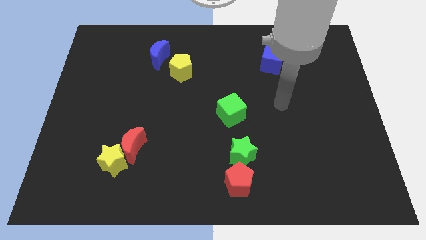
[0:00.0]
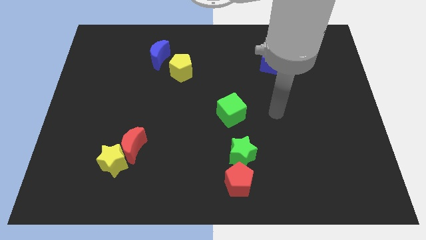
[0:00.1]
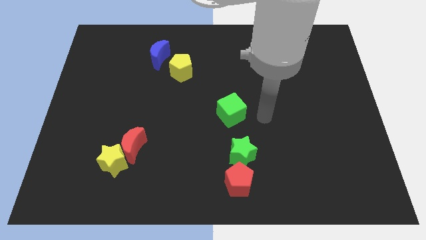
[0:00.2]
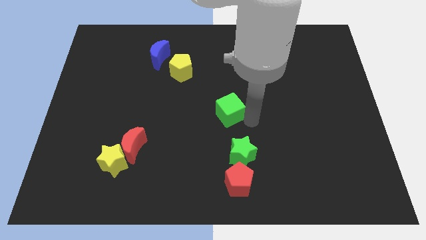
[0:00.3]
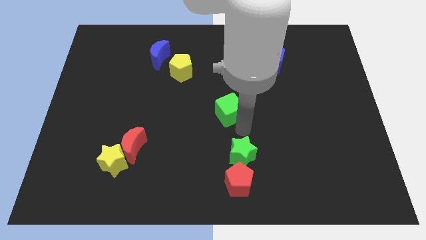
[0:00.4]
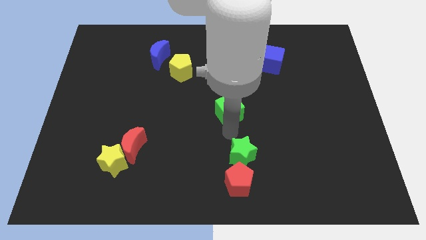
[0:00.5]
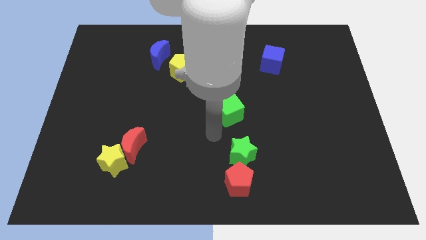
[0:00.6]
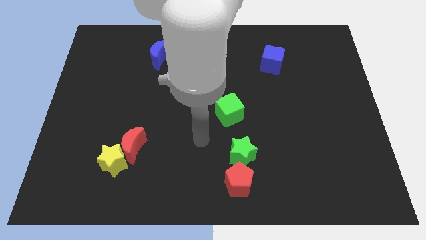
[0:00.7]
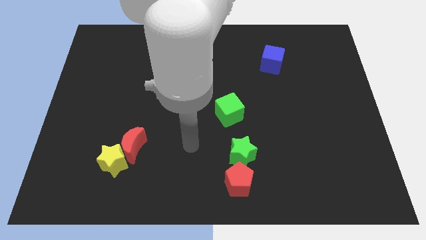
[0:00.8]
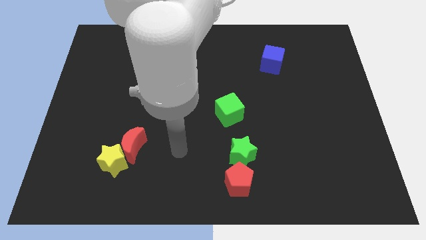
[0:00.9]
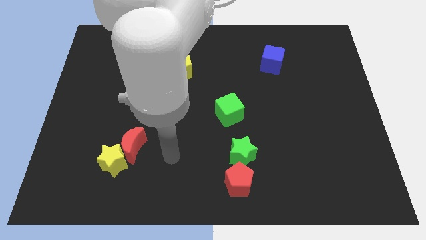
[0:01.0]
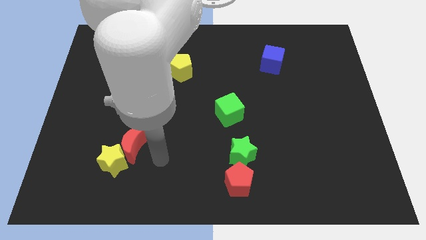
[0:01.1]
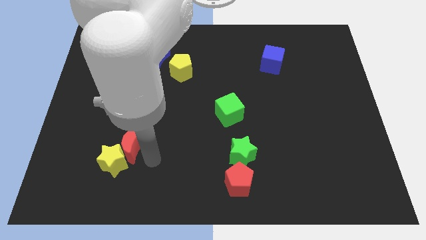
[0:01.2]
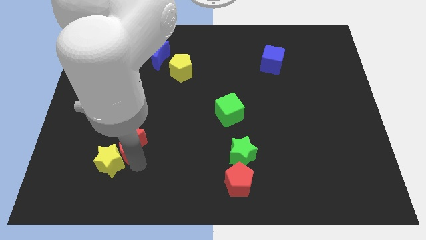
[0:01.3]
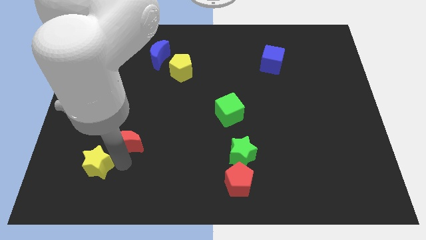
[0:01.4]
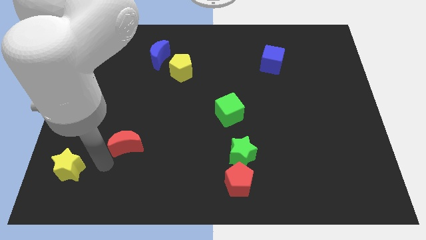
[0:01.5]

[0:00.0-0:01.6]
separate the red moon from the yellow star

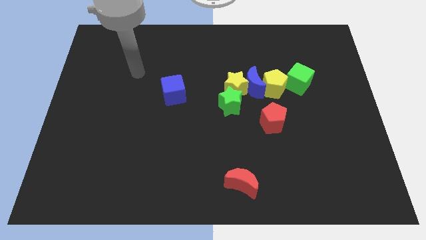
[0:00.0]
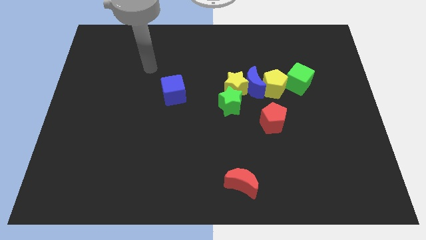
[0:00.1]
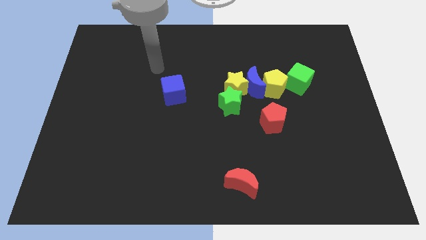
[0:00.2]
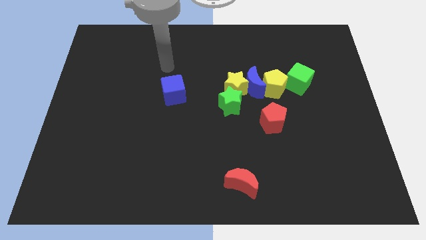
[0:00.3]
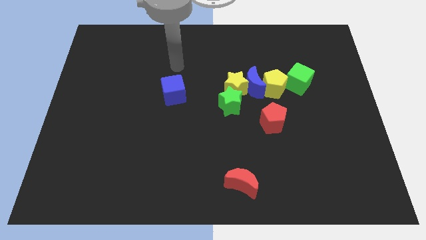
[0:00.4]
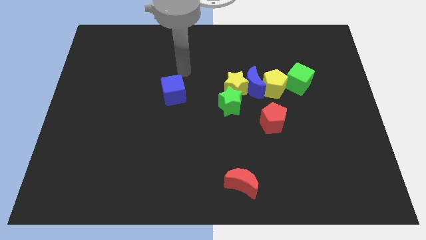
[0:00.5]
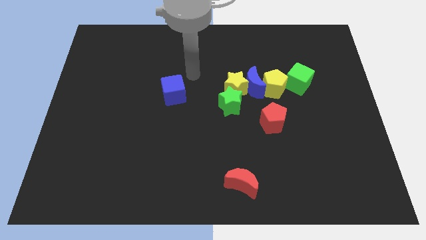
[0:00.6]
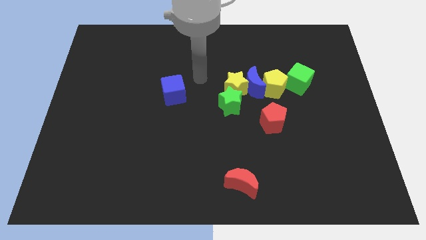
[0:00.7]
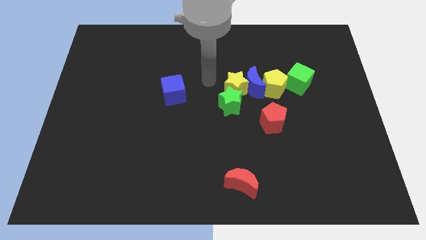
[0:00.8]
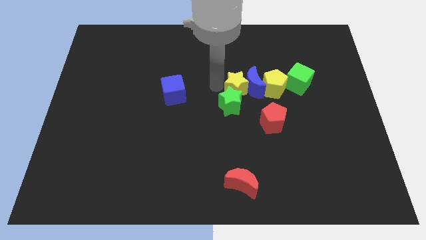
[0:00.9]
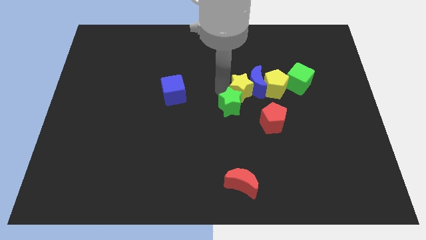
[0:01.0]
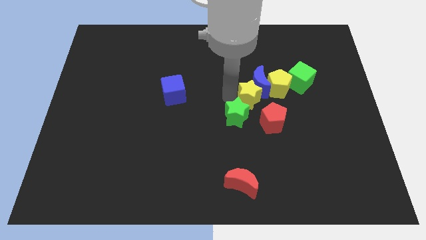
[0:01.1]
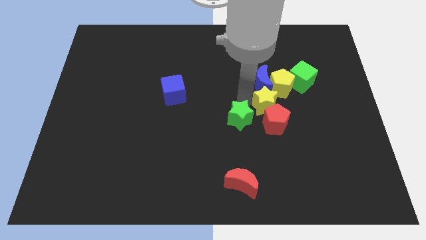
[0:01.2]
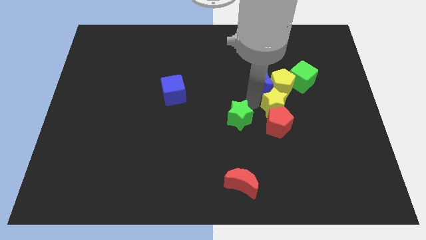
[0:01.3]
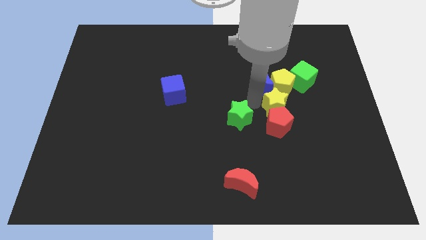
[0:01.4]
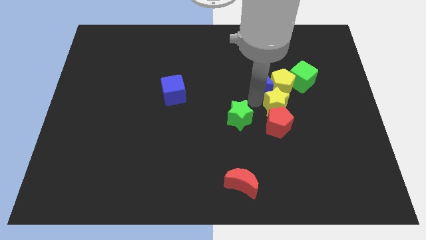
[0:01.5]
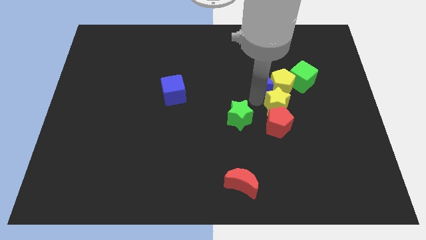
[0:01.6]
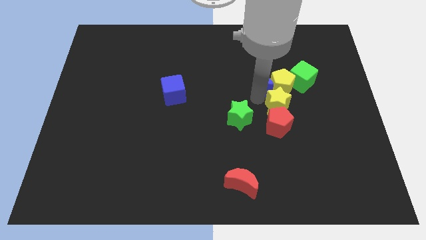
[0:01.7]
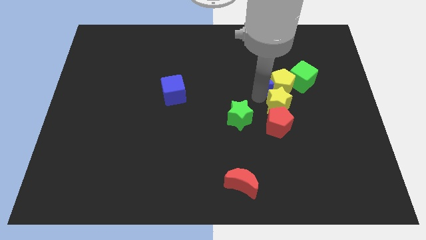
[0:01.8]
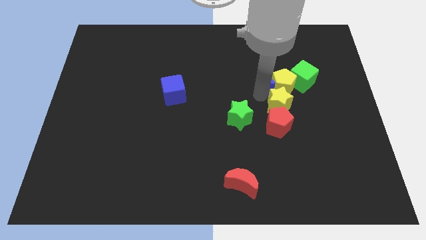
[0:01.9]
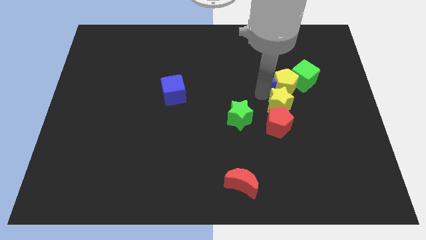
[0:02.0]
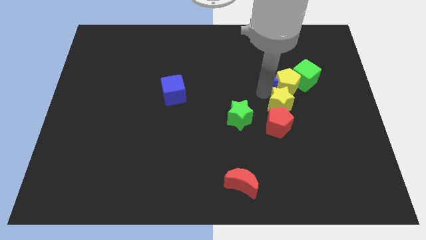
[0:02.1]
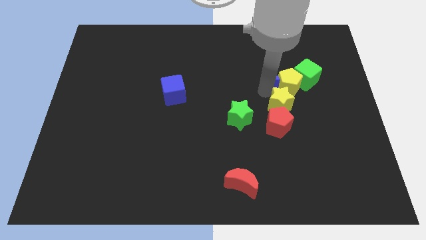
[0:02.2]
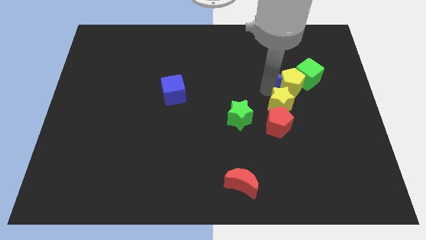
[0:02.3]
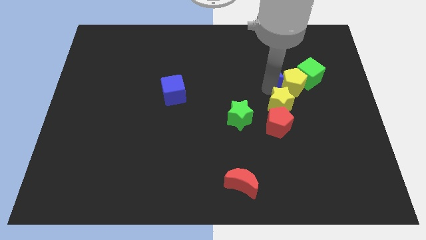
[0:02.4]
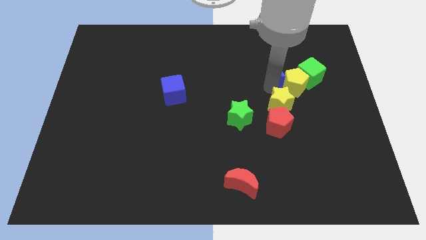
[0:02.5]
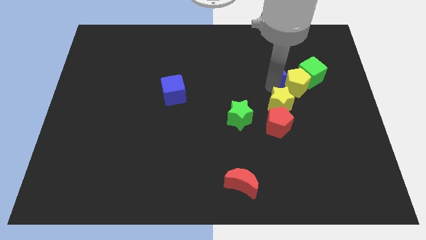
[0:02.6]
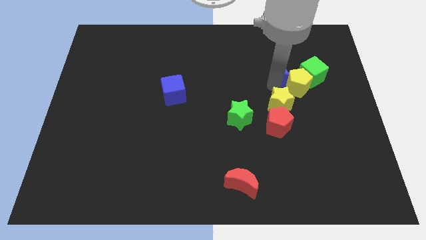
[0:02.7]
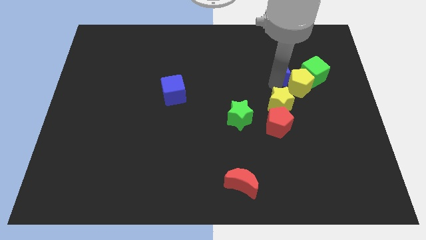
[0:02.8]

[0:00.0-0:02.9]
pull the blue moon apart from the yellow star, yellow pentagon, and green star

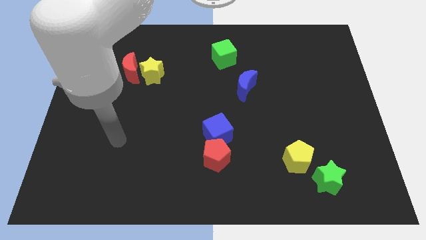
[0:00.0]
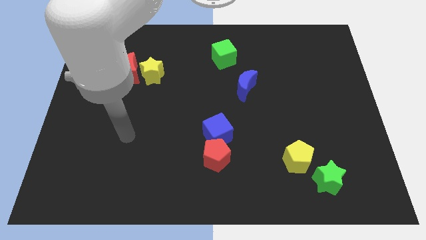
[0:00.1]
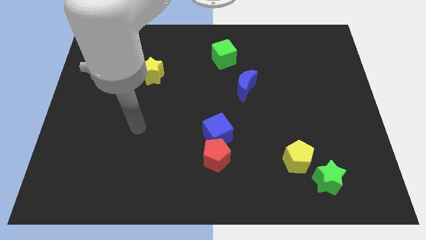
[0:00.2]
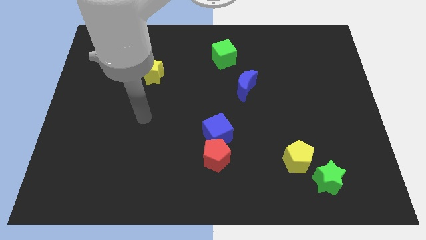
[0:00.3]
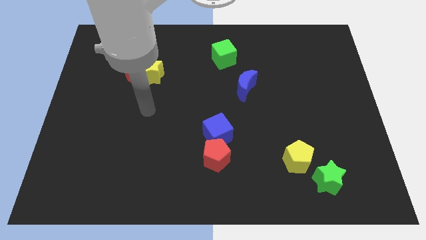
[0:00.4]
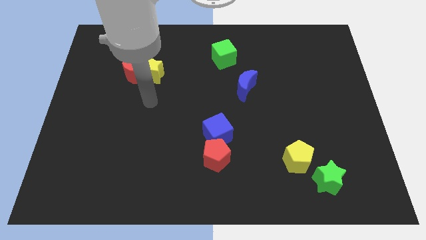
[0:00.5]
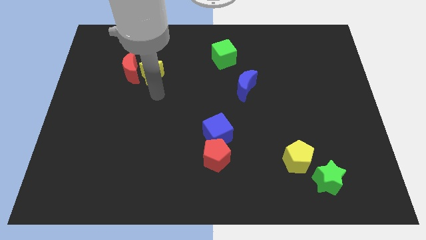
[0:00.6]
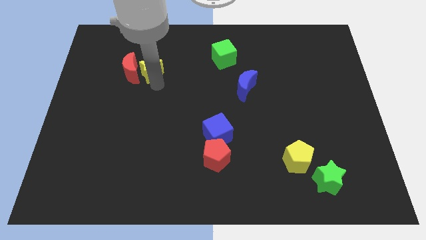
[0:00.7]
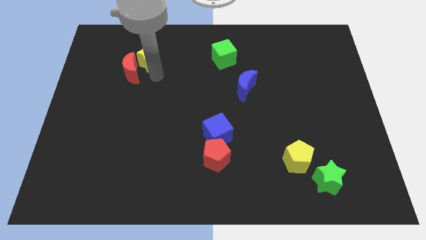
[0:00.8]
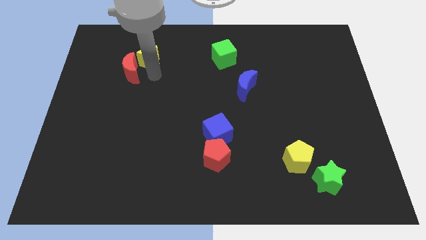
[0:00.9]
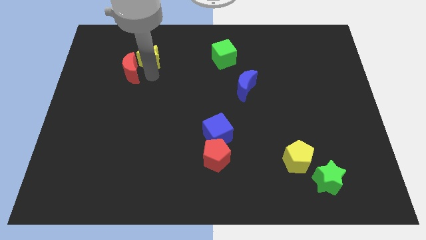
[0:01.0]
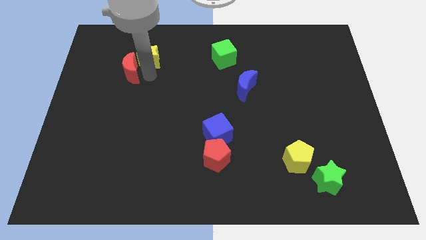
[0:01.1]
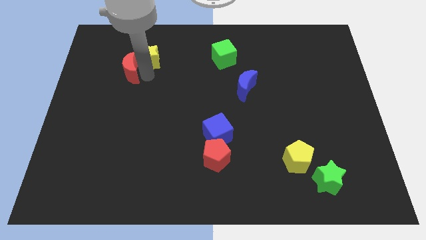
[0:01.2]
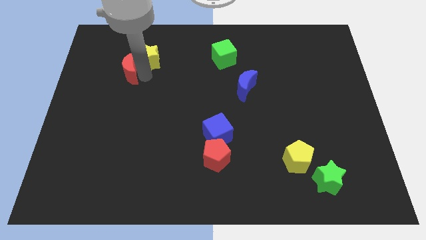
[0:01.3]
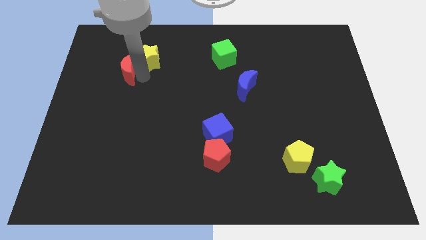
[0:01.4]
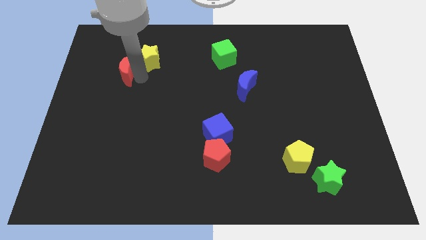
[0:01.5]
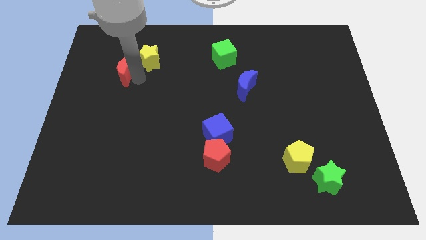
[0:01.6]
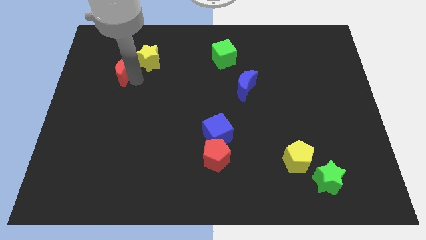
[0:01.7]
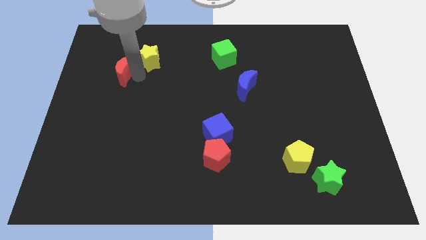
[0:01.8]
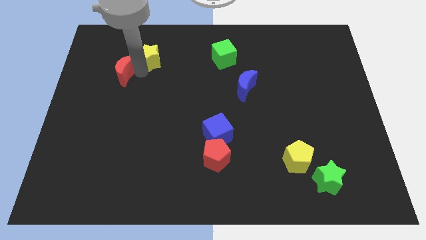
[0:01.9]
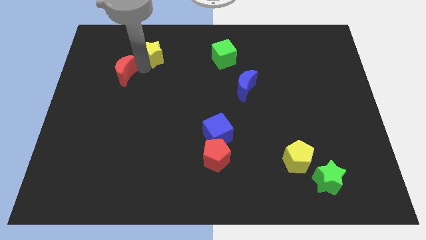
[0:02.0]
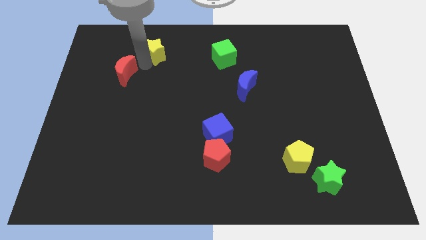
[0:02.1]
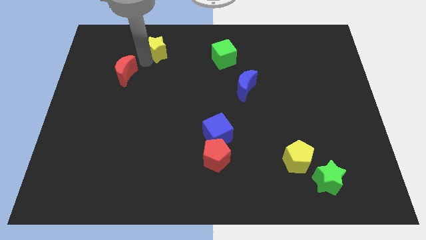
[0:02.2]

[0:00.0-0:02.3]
pull the red moon apart from the yellow star

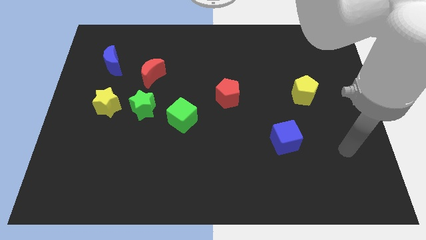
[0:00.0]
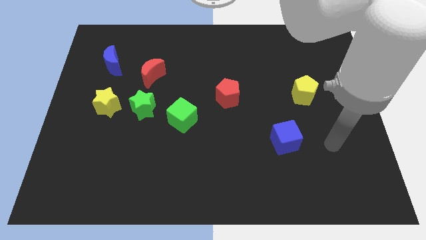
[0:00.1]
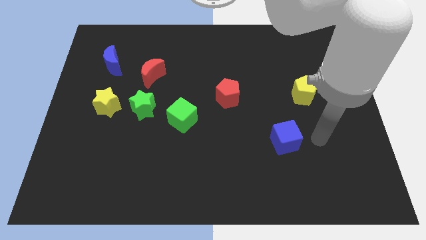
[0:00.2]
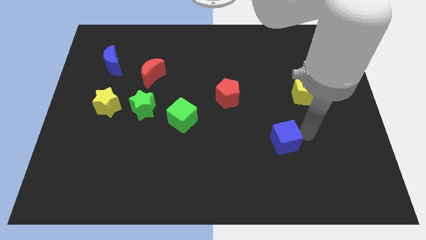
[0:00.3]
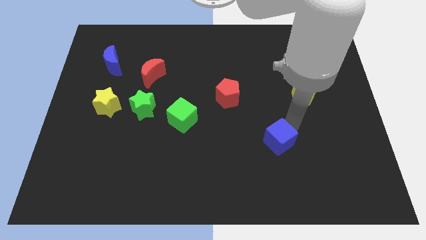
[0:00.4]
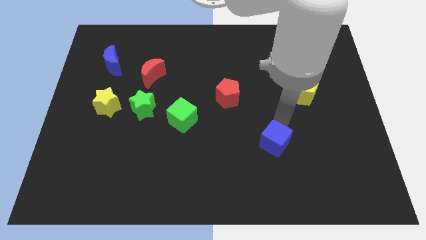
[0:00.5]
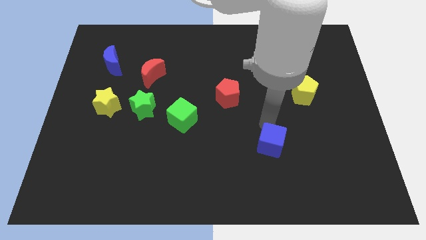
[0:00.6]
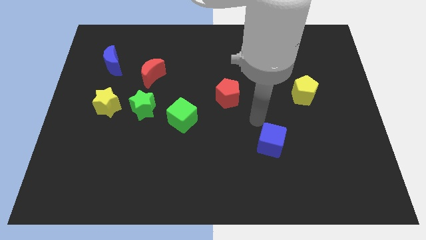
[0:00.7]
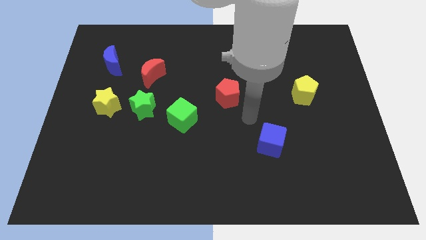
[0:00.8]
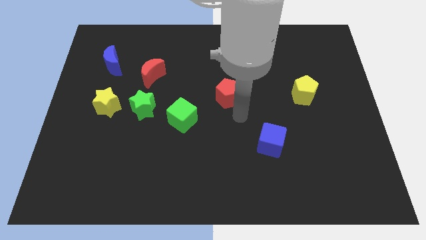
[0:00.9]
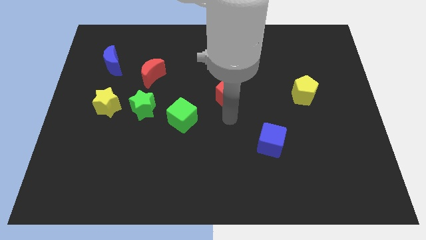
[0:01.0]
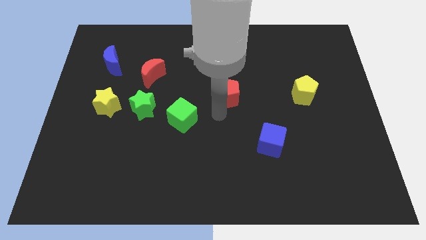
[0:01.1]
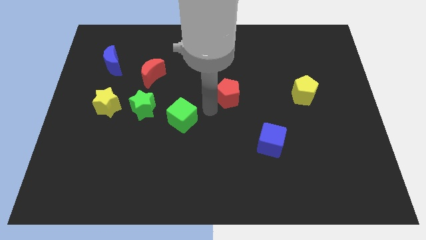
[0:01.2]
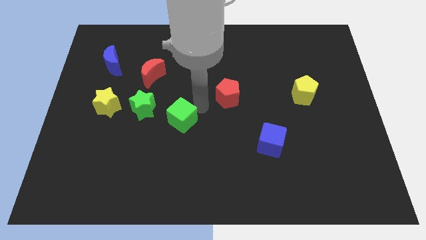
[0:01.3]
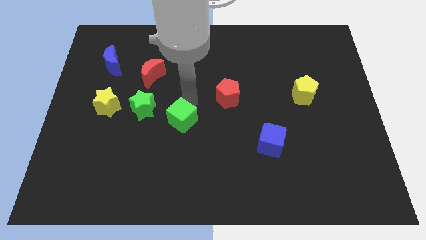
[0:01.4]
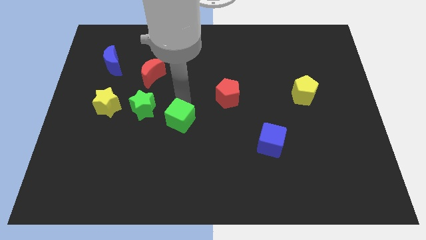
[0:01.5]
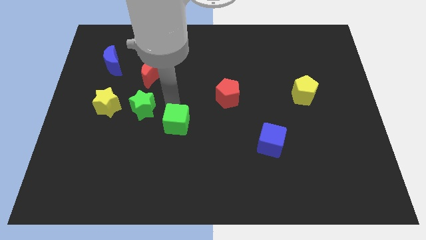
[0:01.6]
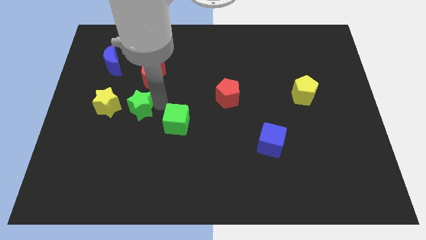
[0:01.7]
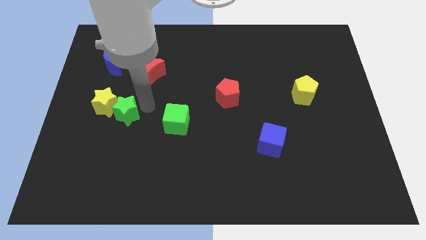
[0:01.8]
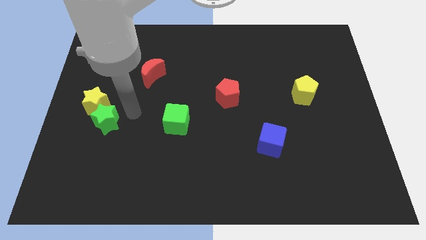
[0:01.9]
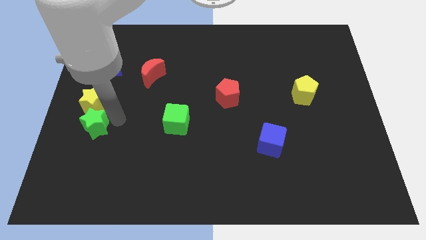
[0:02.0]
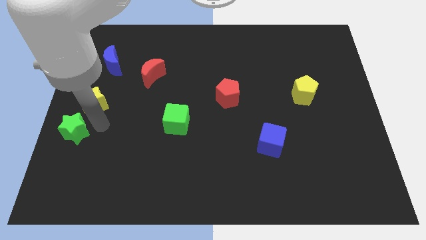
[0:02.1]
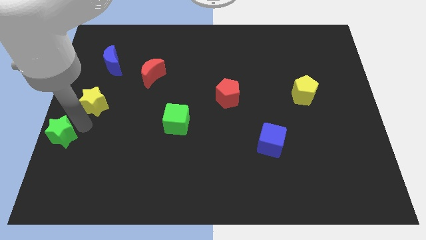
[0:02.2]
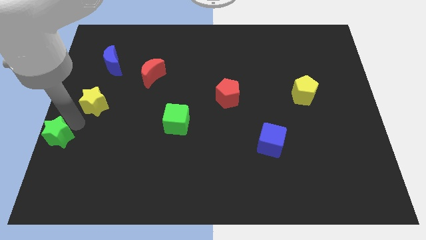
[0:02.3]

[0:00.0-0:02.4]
separate the yellow star from the green star
